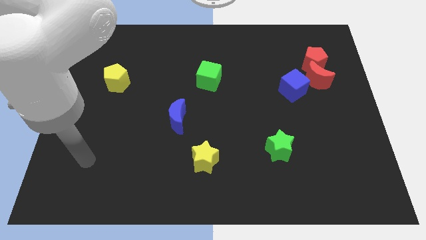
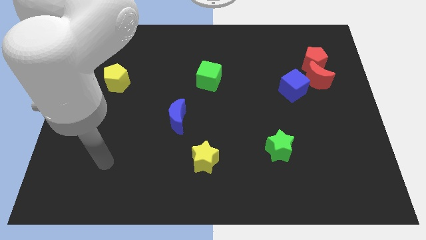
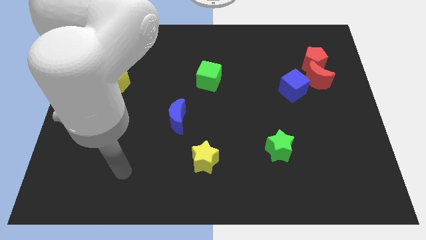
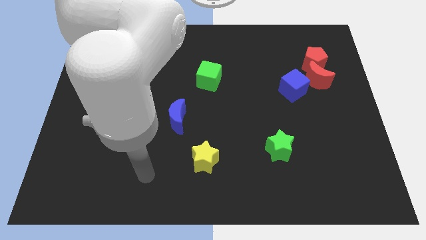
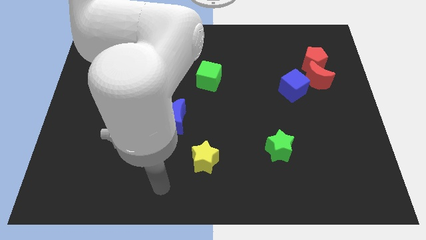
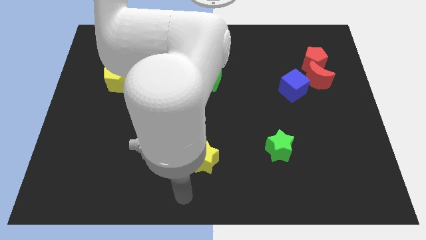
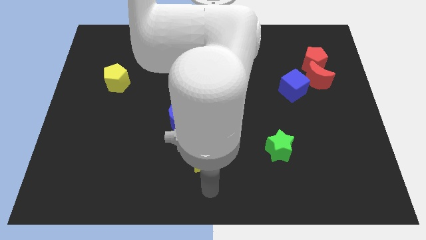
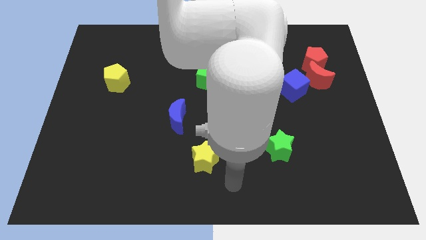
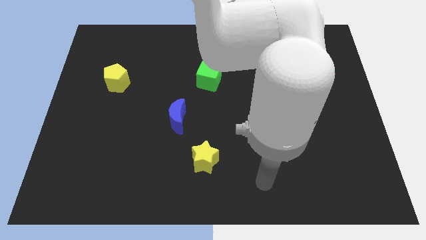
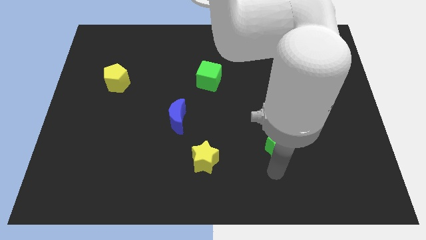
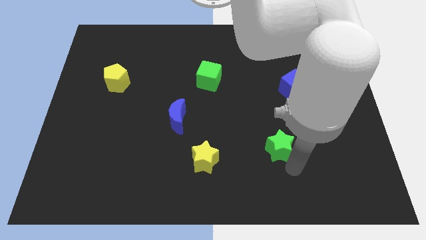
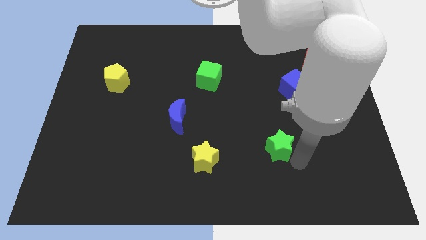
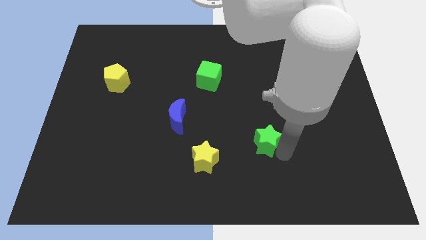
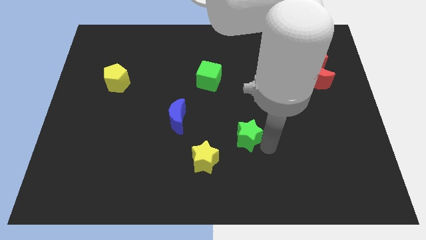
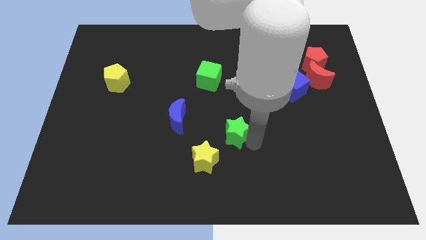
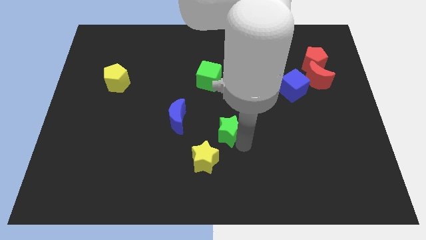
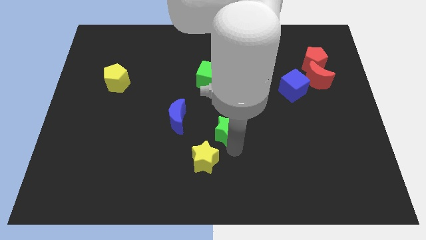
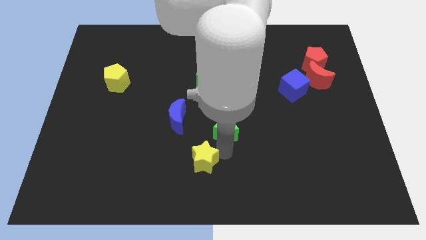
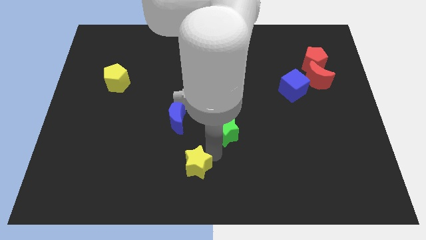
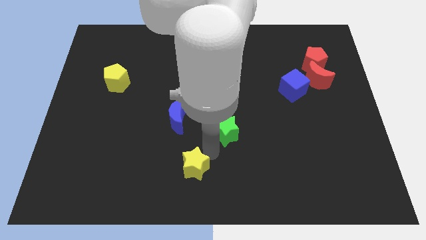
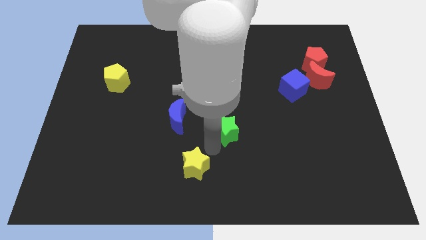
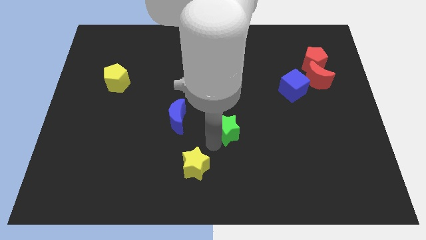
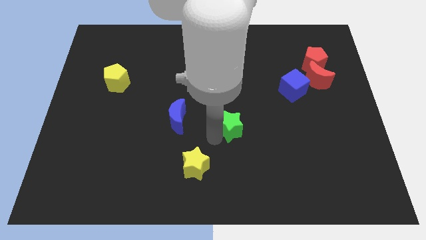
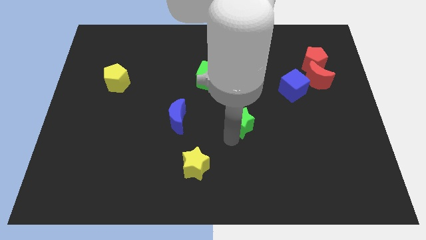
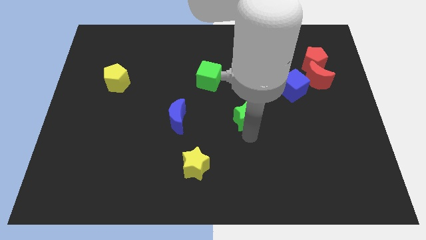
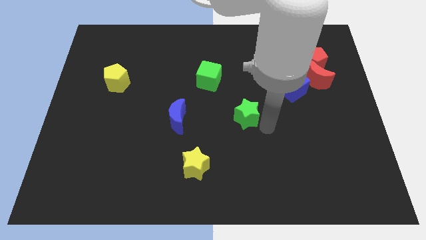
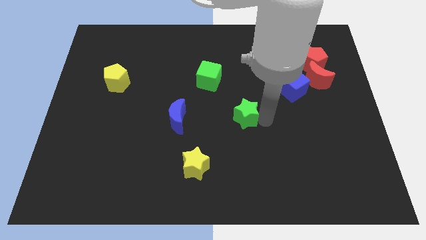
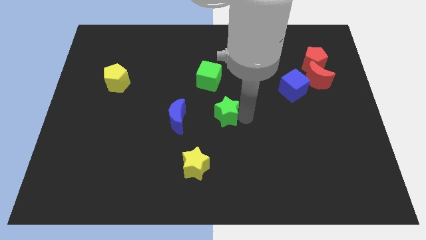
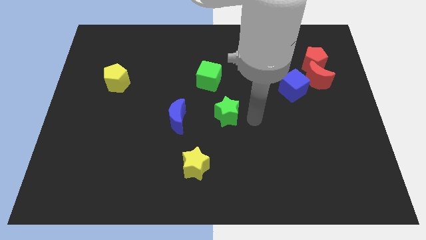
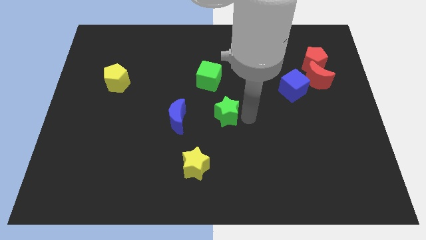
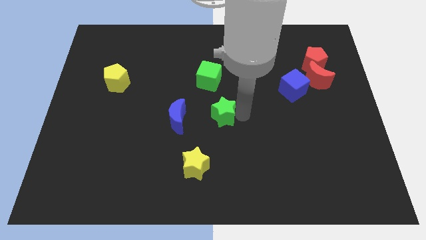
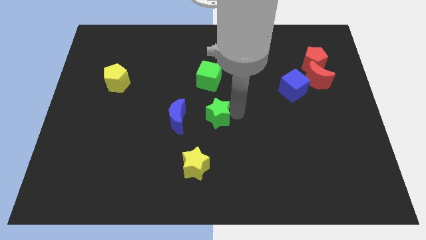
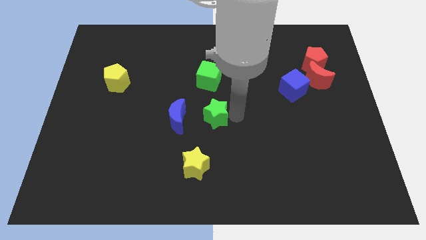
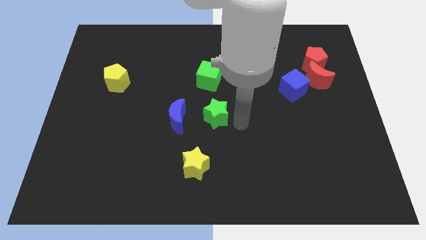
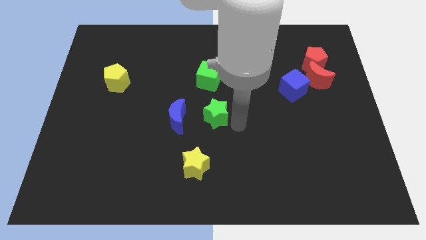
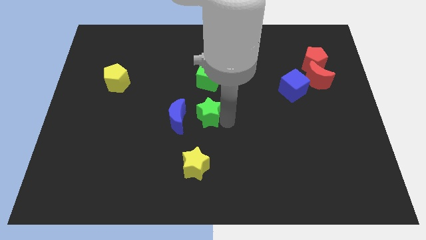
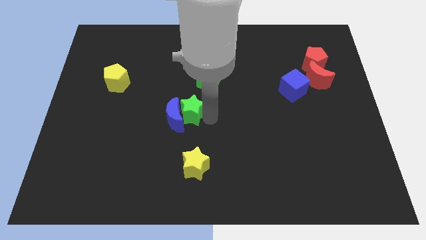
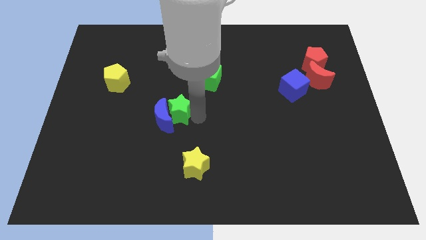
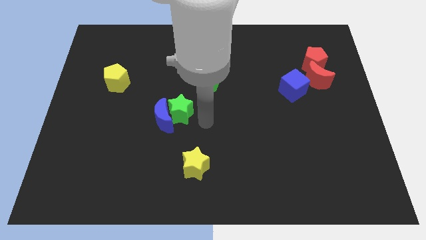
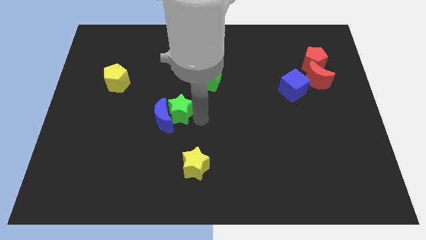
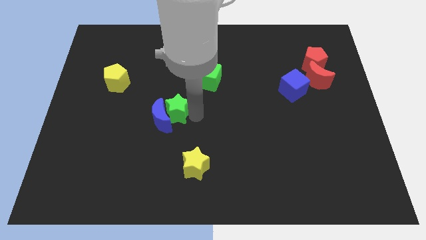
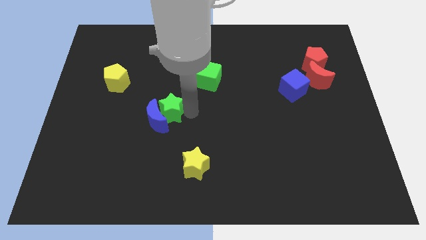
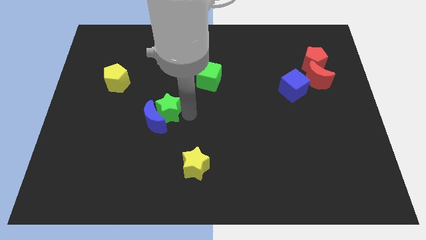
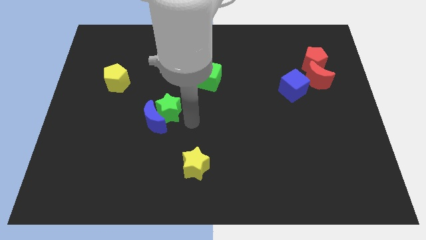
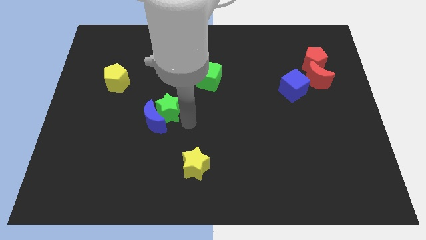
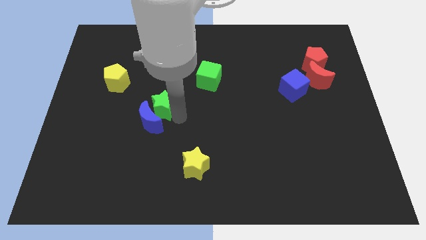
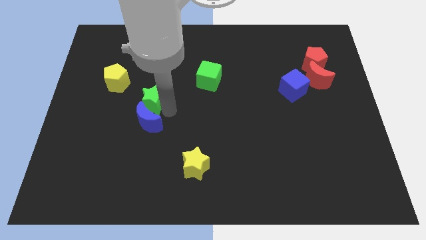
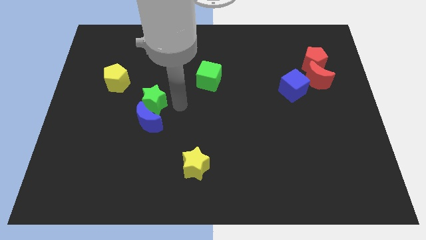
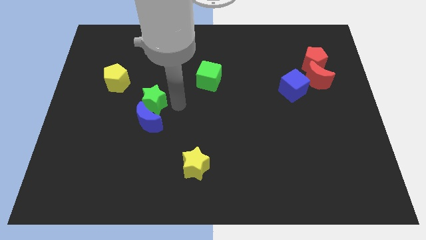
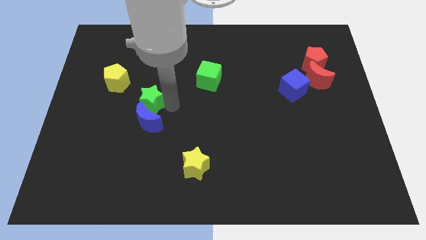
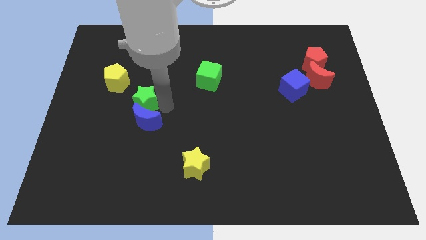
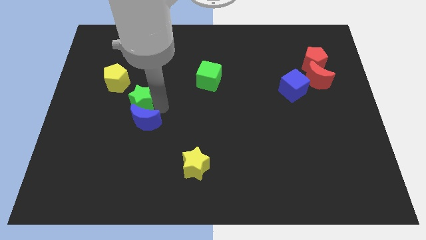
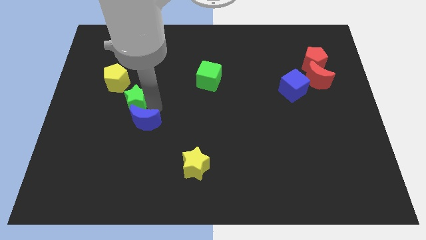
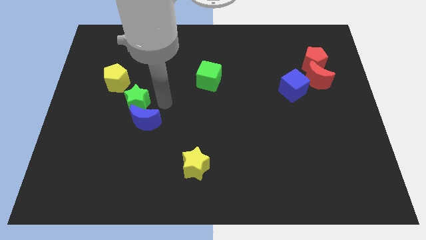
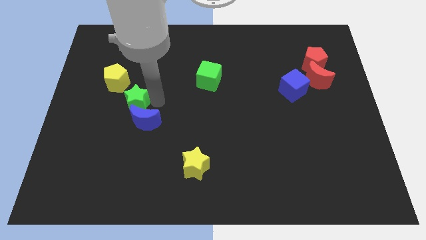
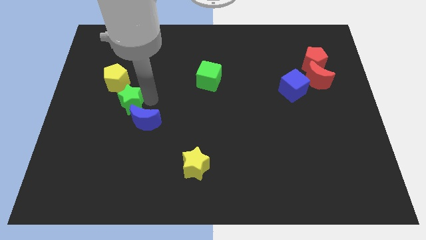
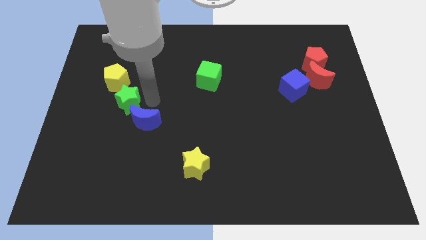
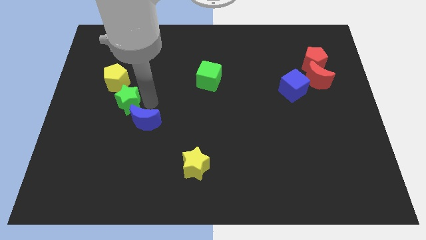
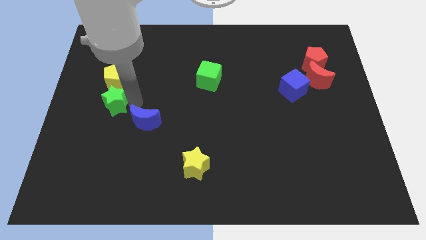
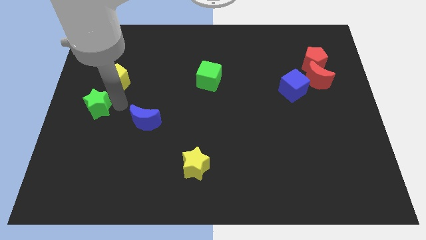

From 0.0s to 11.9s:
move the green star to the left side
